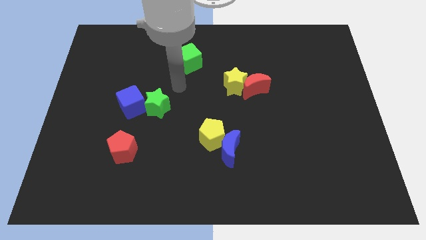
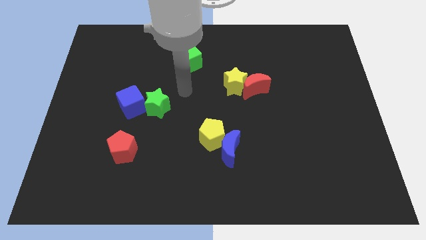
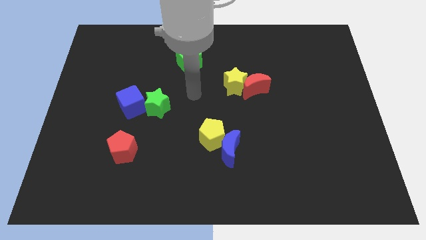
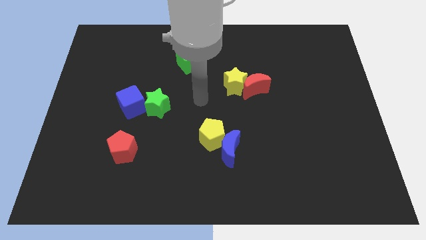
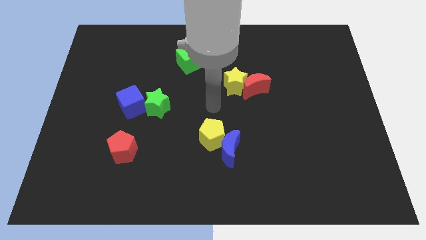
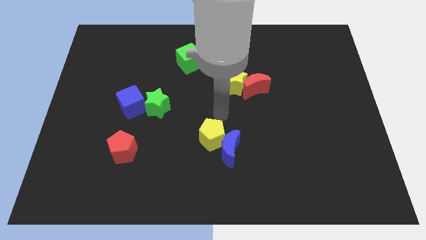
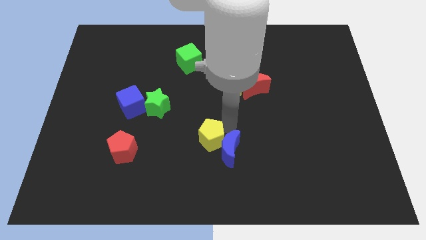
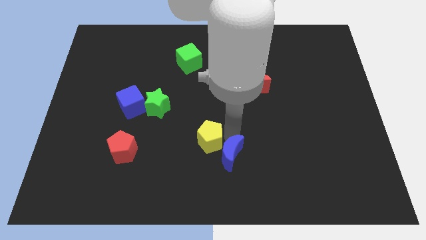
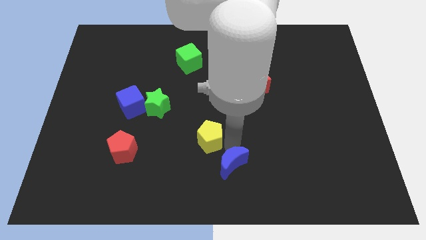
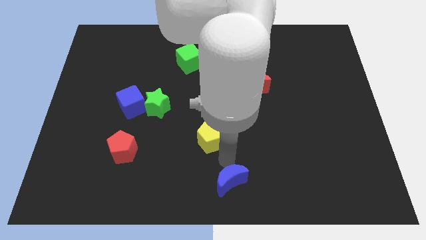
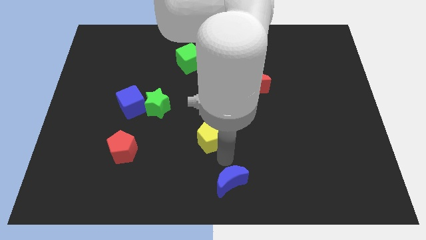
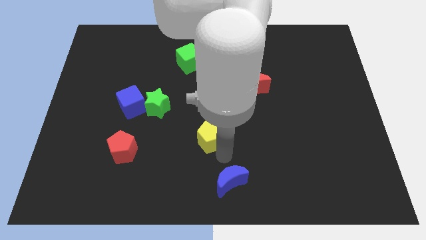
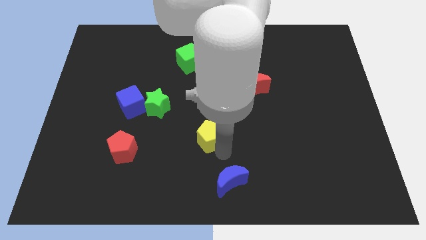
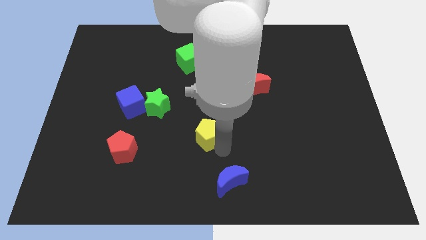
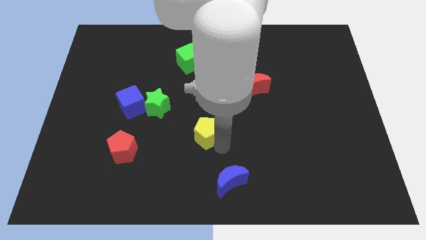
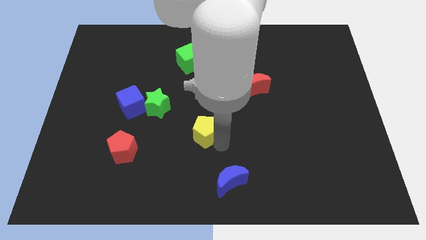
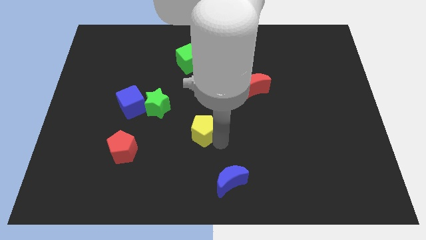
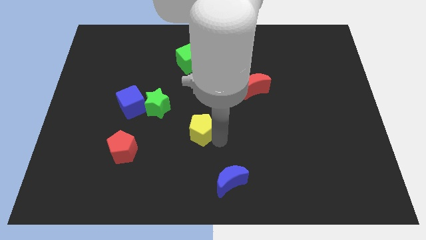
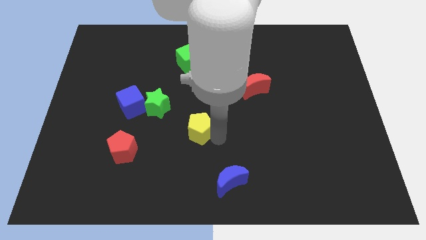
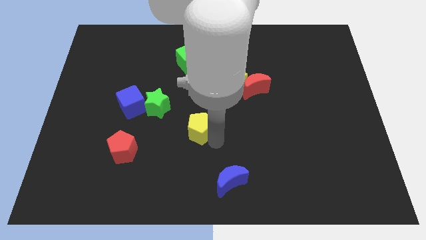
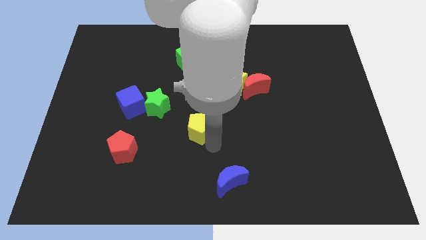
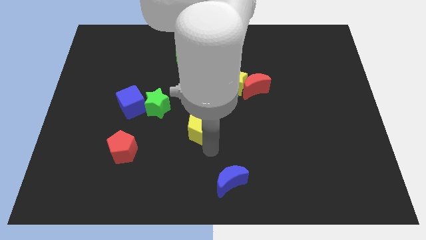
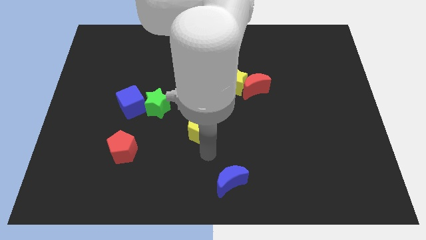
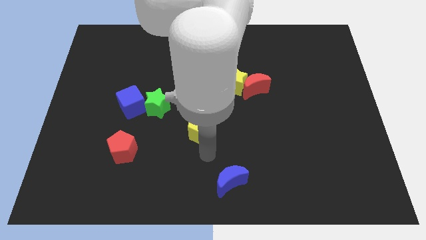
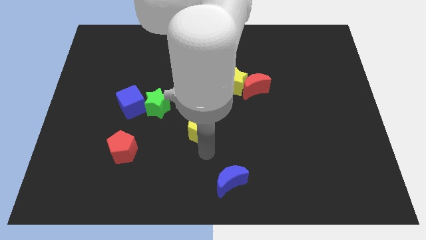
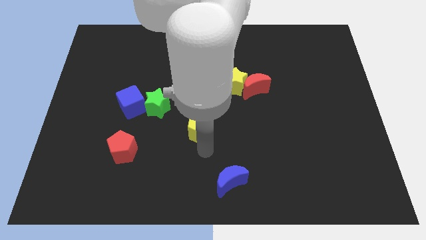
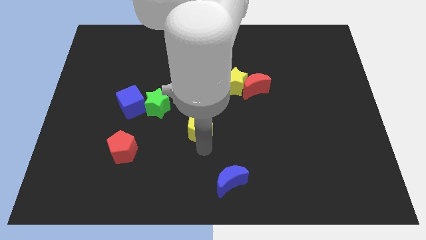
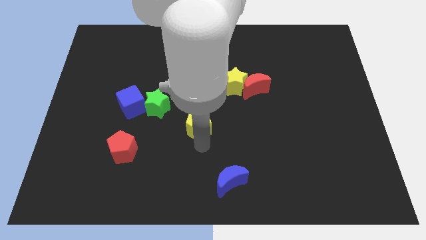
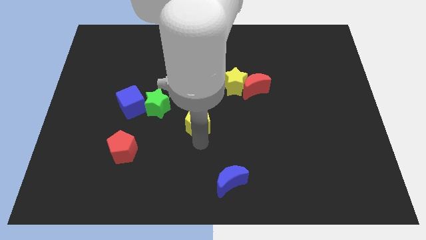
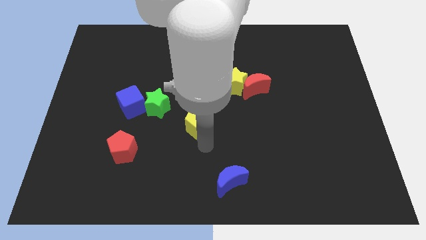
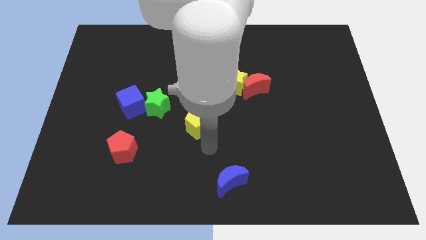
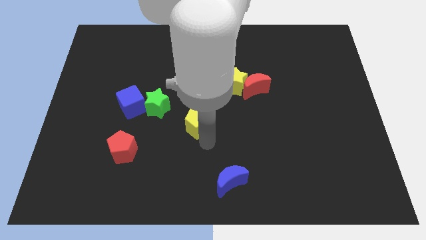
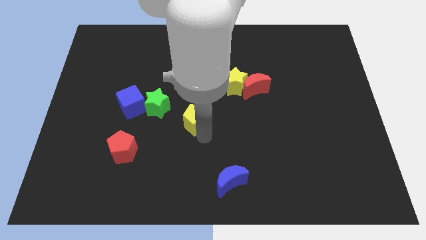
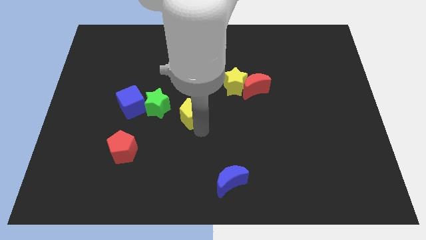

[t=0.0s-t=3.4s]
slide the yellow pentagon diagonally up and to the left a bit

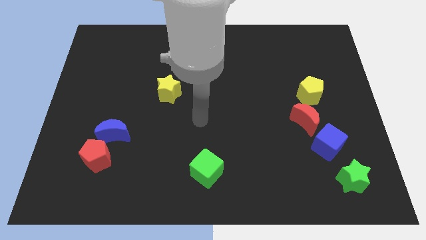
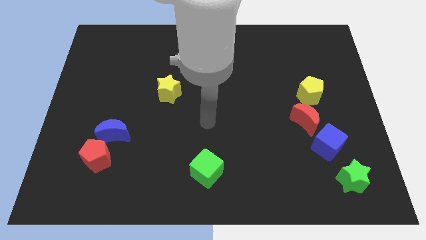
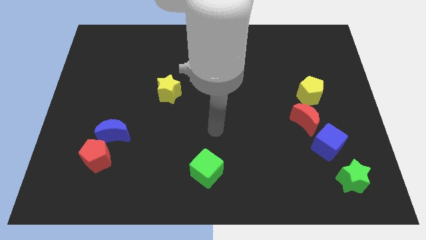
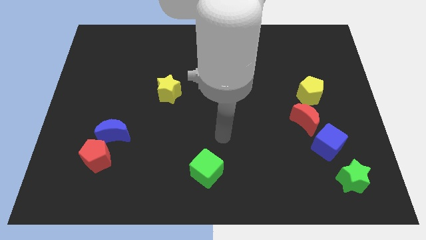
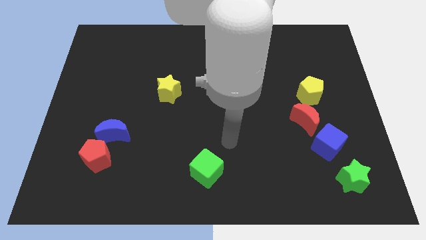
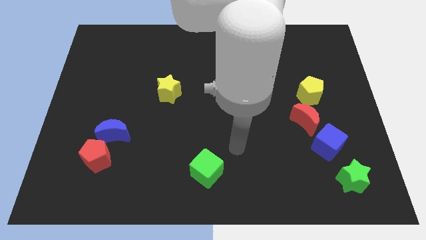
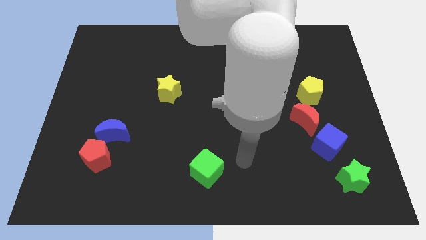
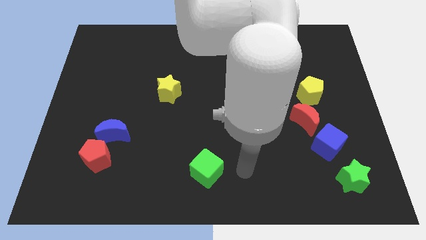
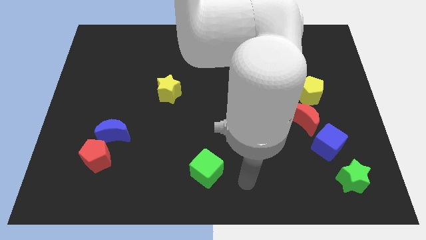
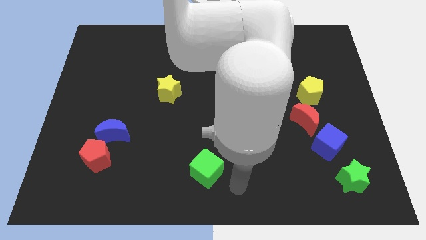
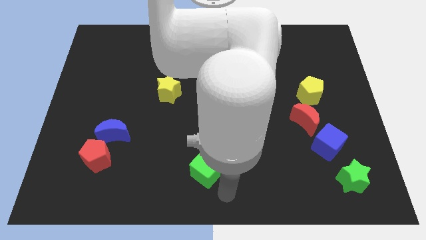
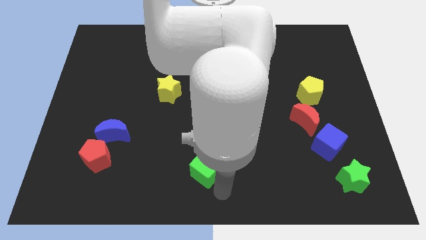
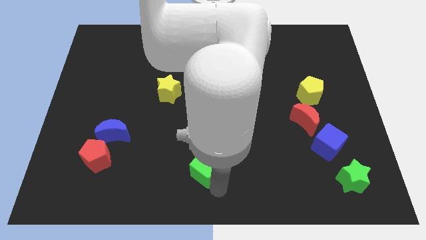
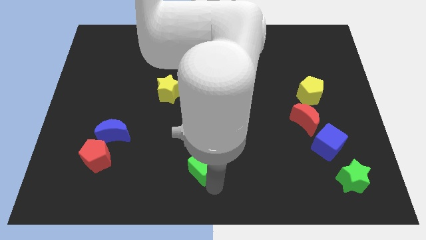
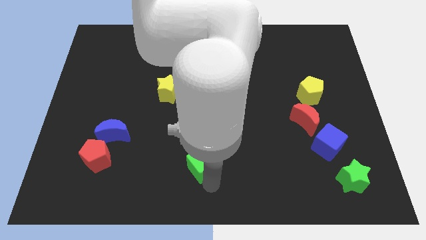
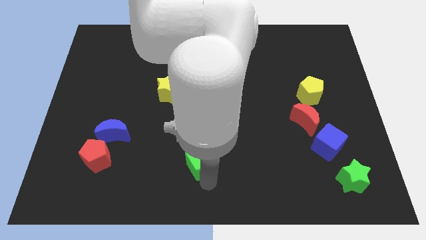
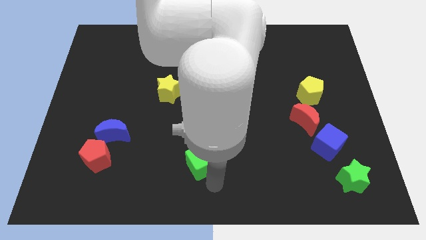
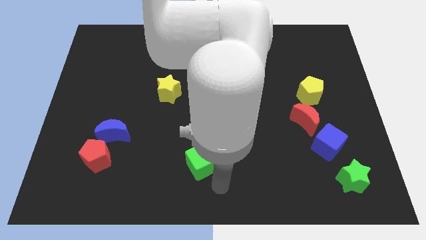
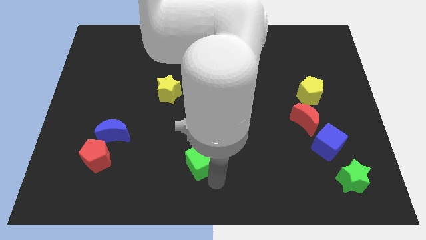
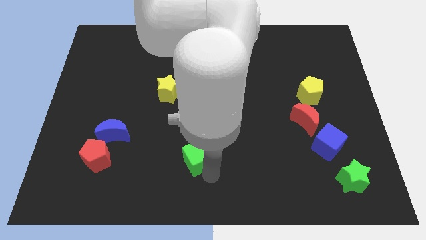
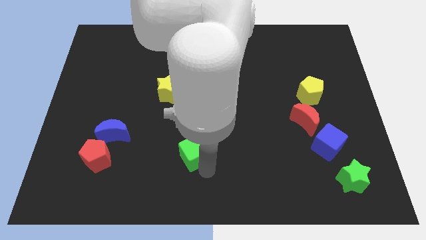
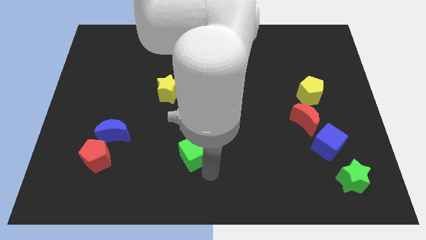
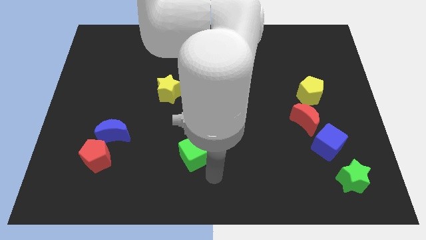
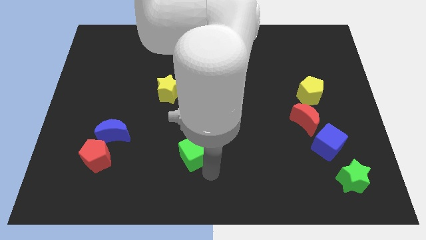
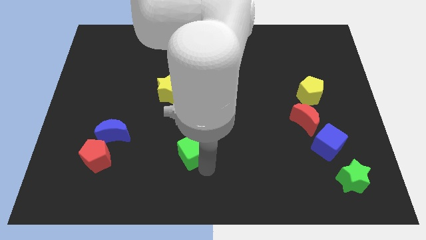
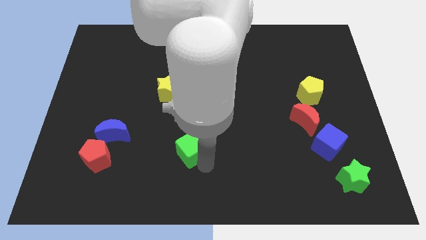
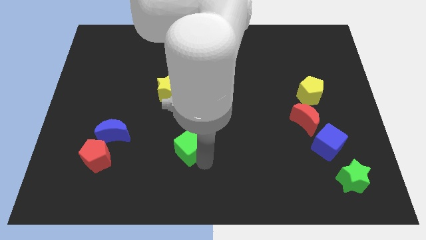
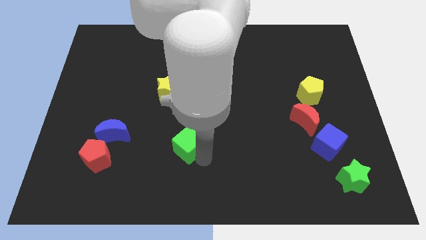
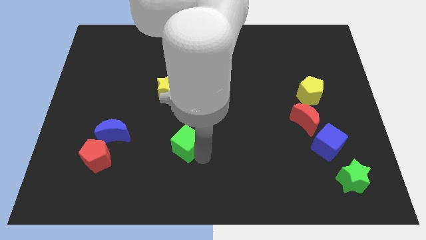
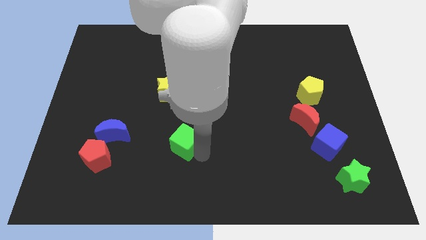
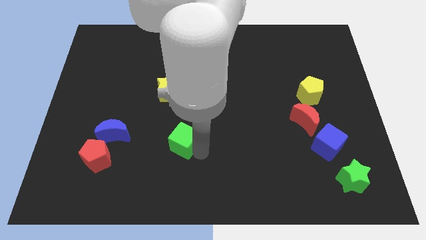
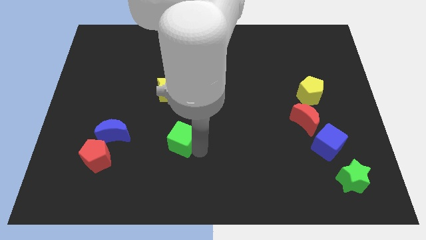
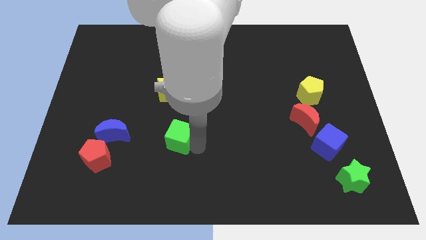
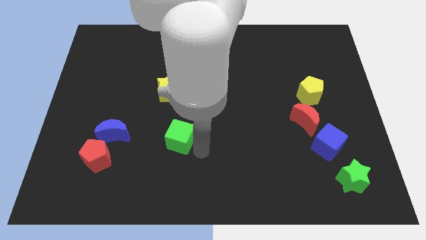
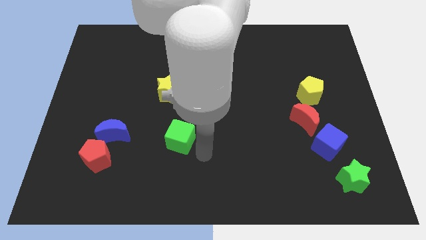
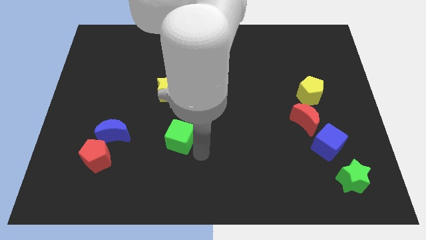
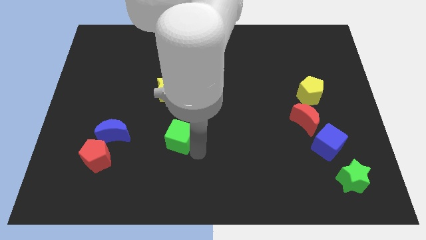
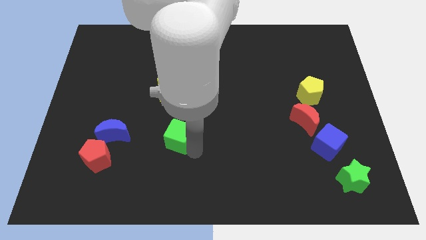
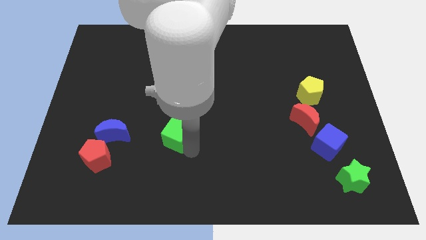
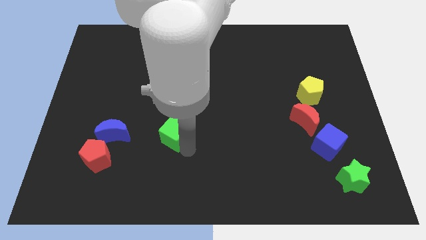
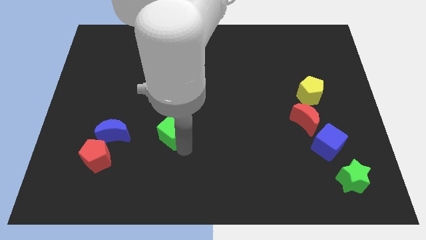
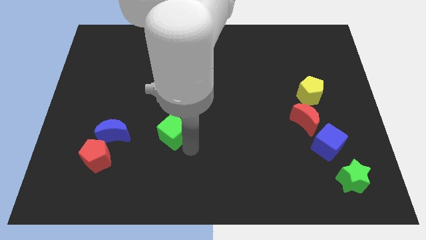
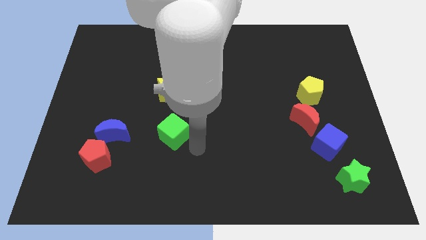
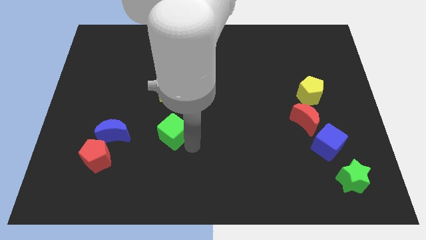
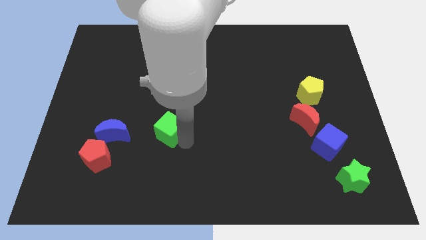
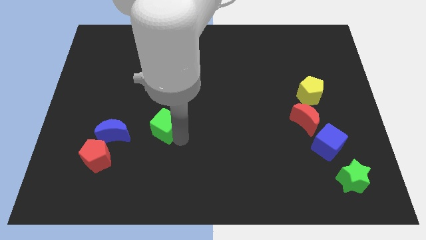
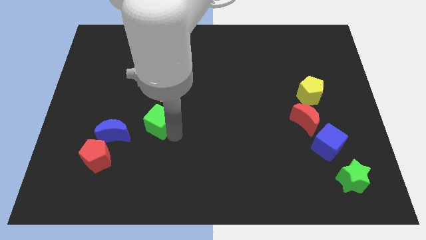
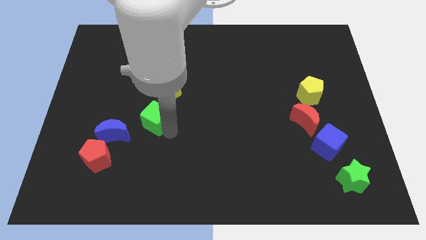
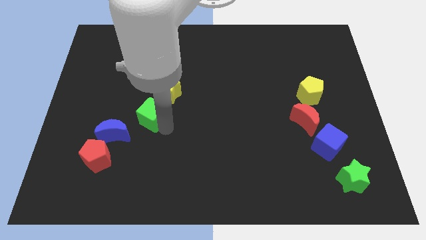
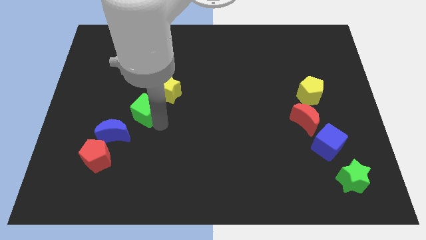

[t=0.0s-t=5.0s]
push the green cube diagonally up and to the left
